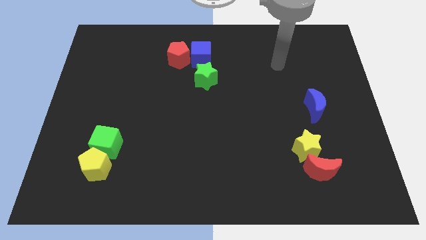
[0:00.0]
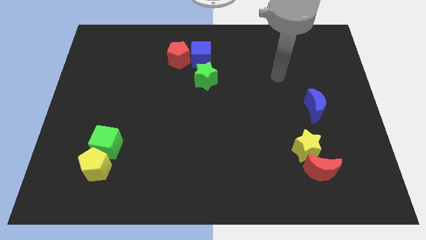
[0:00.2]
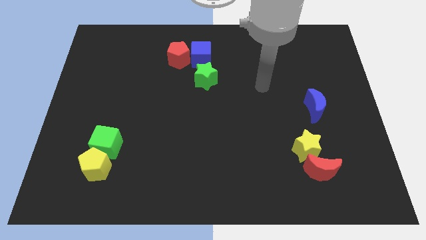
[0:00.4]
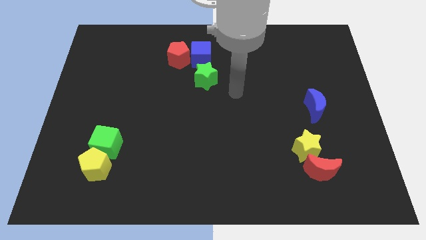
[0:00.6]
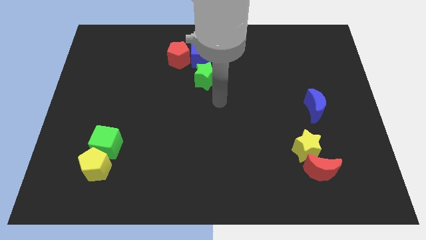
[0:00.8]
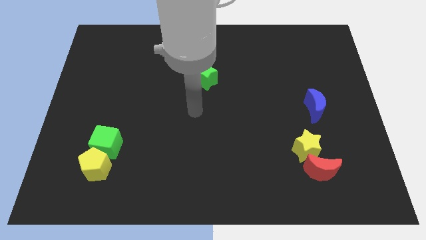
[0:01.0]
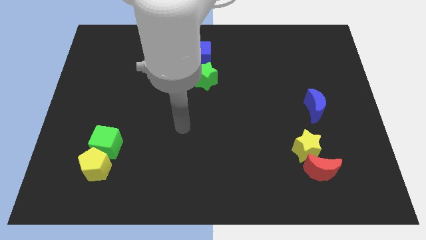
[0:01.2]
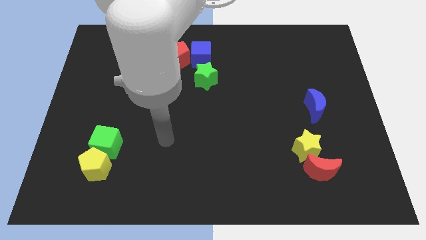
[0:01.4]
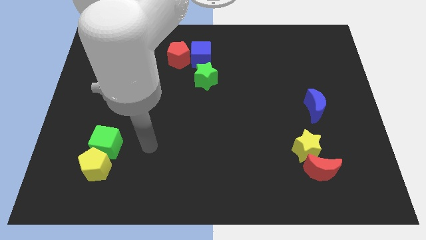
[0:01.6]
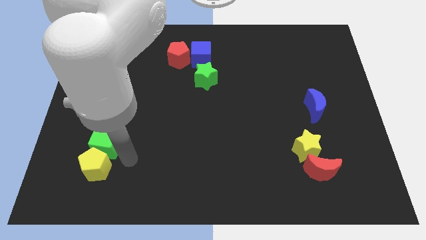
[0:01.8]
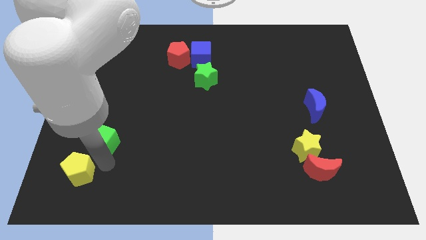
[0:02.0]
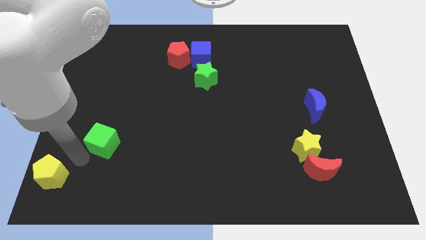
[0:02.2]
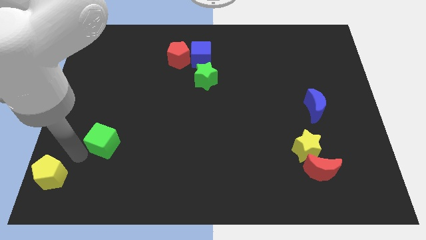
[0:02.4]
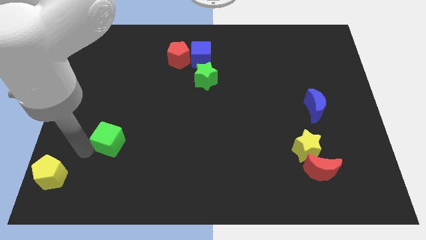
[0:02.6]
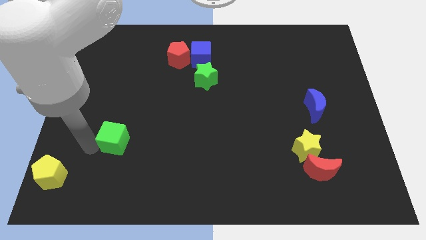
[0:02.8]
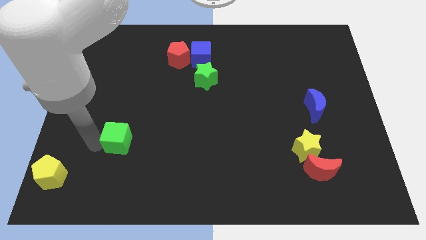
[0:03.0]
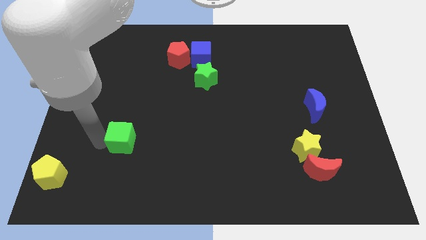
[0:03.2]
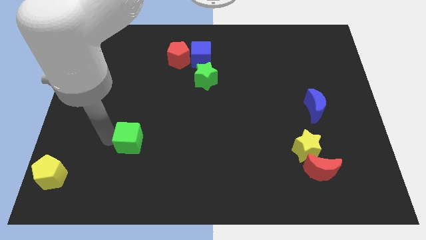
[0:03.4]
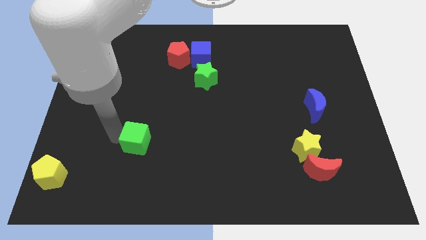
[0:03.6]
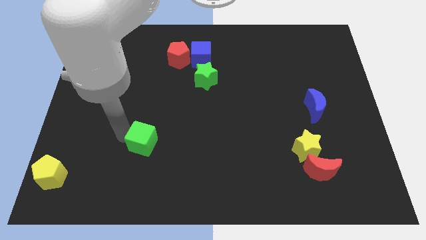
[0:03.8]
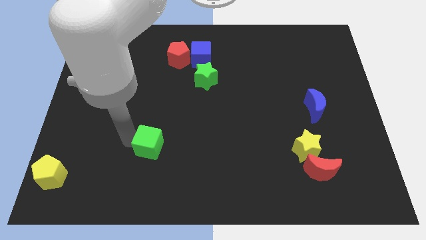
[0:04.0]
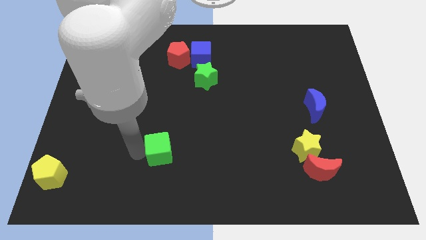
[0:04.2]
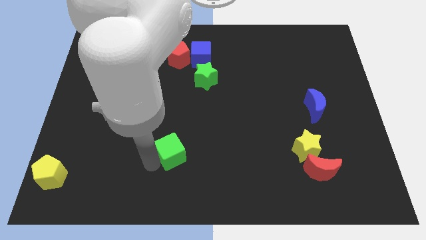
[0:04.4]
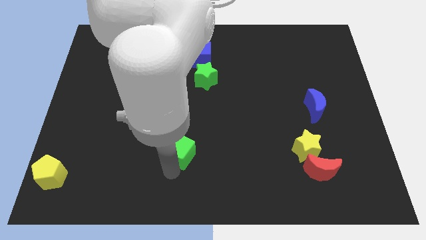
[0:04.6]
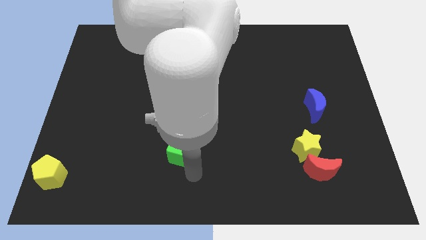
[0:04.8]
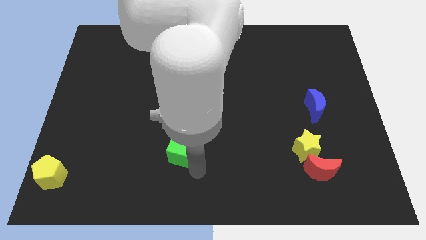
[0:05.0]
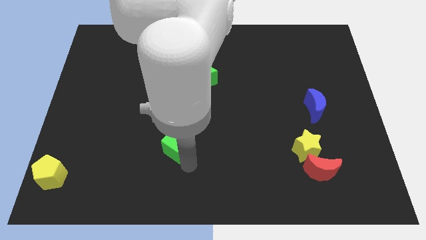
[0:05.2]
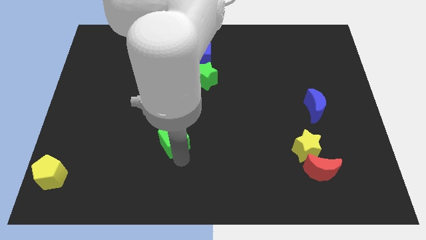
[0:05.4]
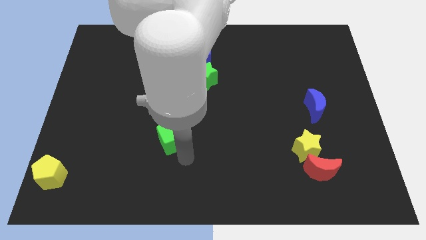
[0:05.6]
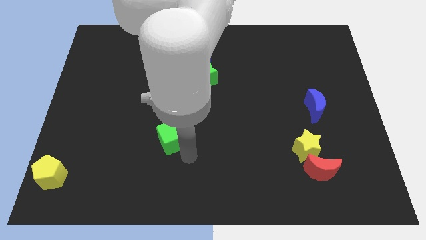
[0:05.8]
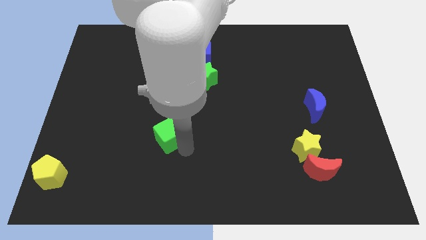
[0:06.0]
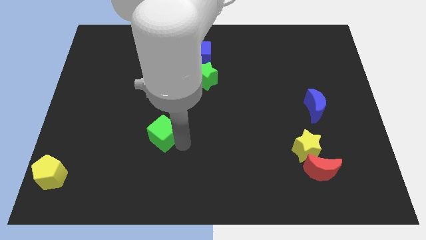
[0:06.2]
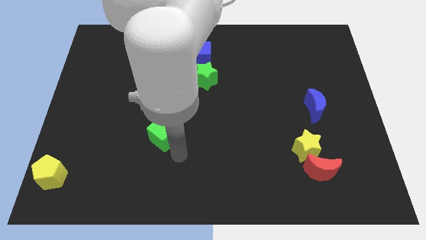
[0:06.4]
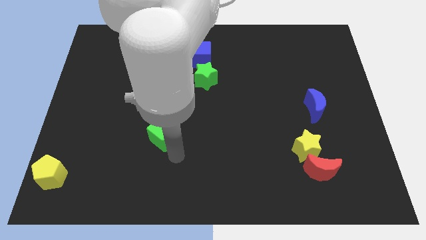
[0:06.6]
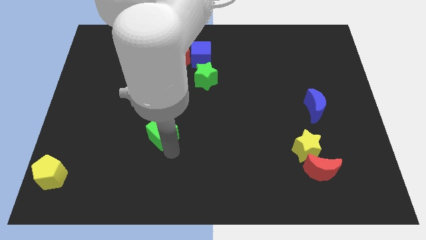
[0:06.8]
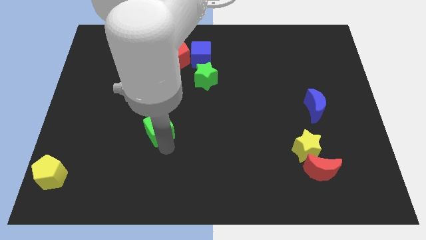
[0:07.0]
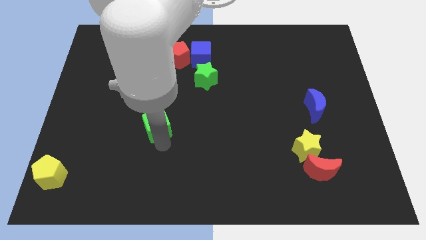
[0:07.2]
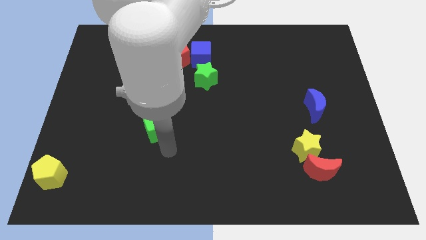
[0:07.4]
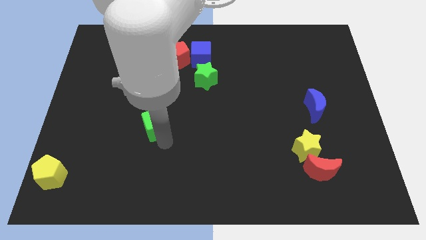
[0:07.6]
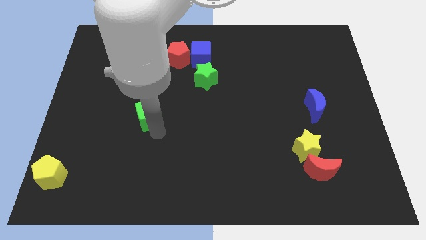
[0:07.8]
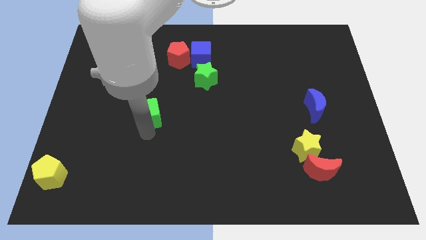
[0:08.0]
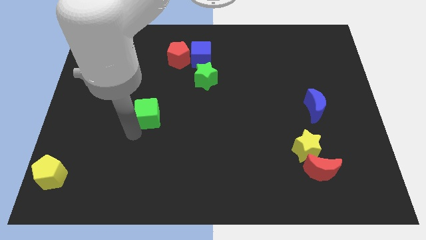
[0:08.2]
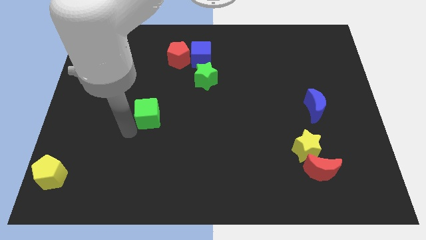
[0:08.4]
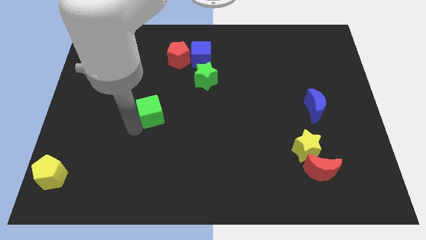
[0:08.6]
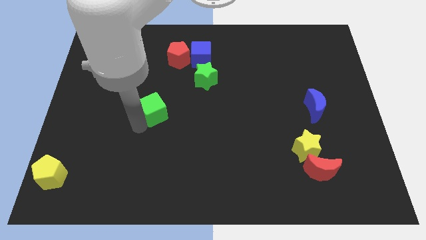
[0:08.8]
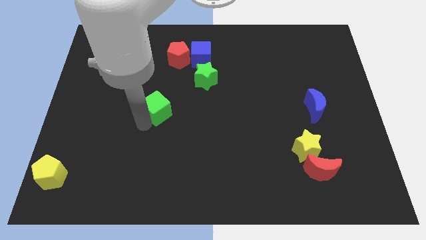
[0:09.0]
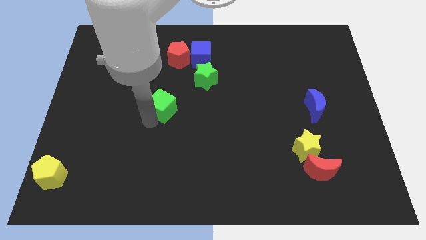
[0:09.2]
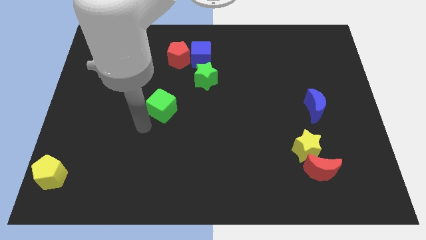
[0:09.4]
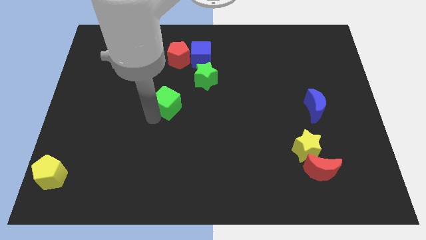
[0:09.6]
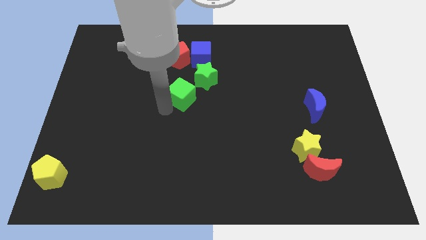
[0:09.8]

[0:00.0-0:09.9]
push the green cube up and right diagonally

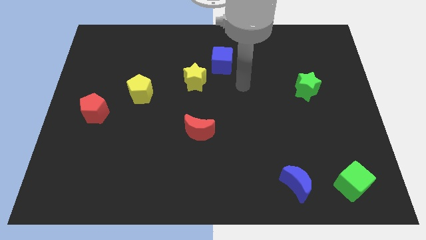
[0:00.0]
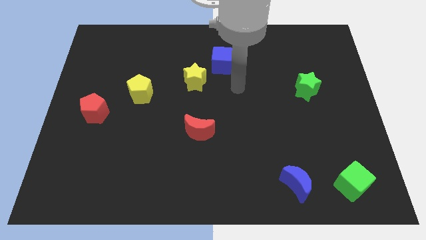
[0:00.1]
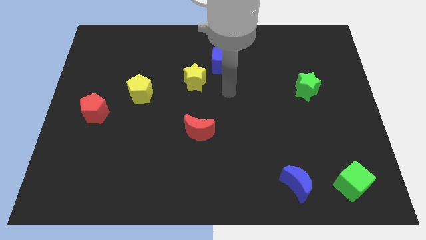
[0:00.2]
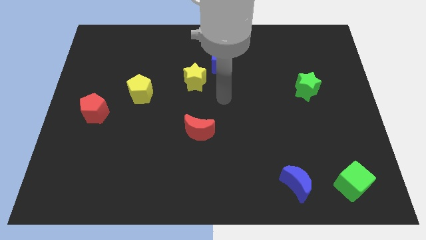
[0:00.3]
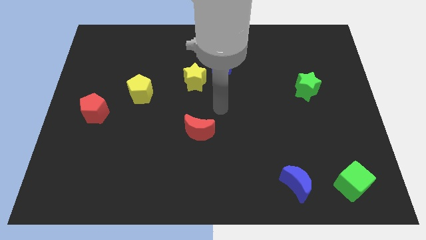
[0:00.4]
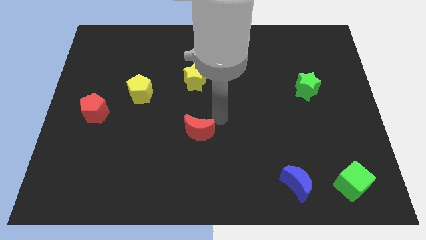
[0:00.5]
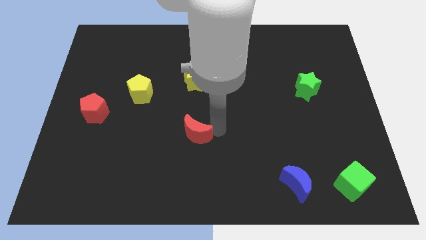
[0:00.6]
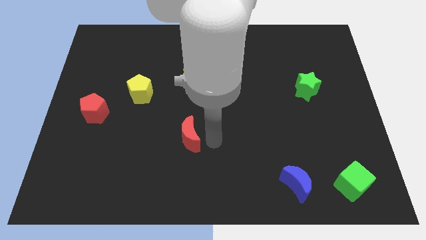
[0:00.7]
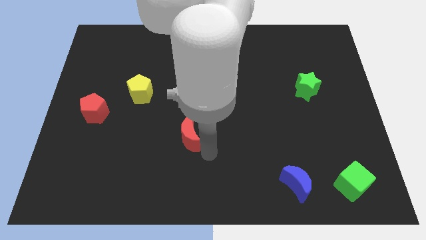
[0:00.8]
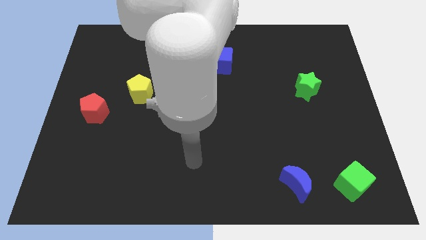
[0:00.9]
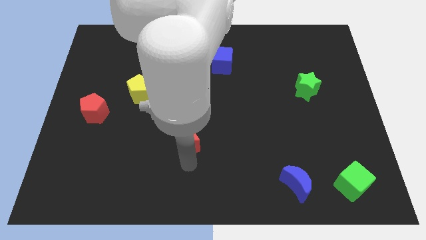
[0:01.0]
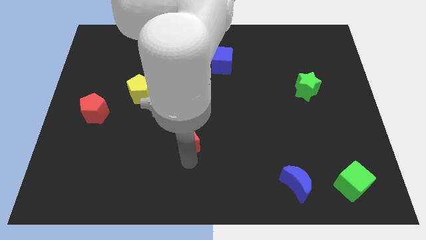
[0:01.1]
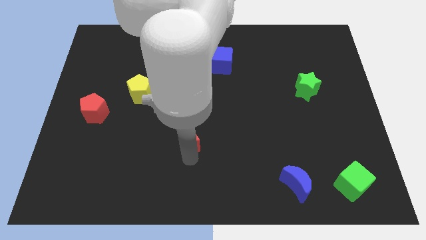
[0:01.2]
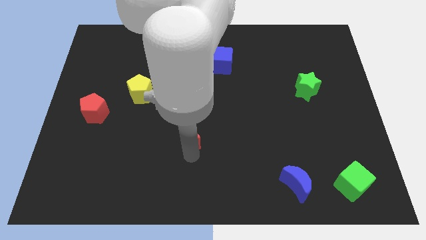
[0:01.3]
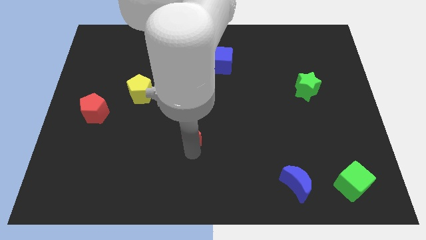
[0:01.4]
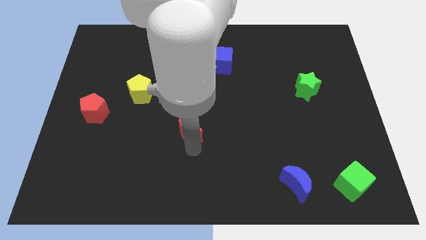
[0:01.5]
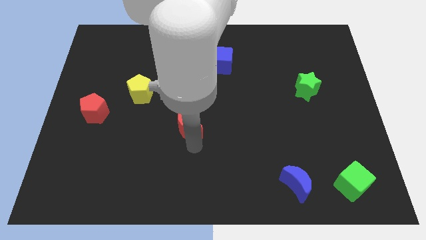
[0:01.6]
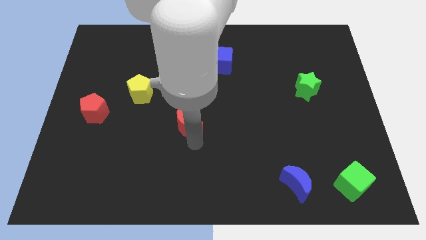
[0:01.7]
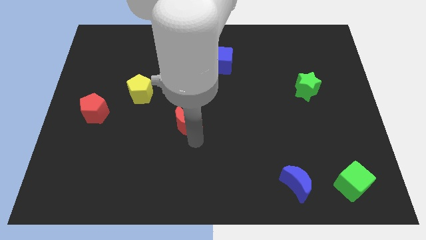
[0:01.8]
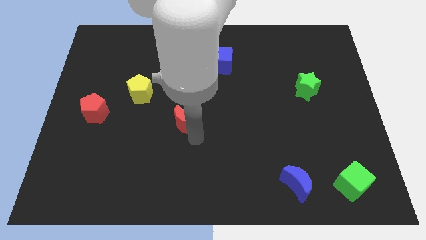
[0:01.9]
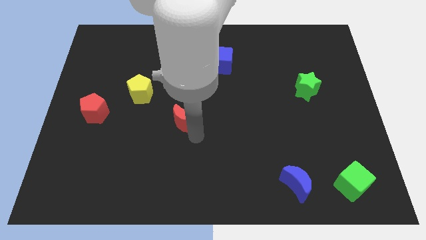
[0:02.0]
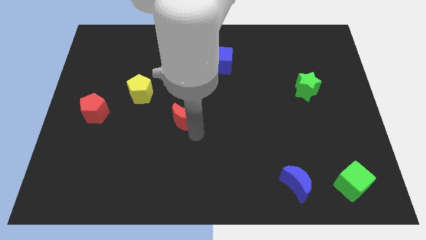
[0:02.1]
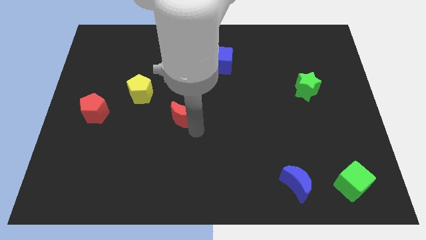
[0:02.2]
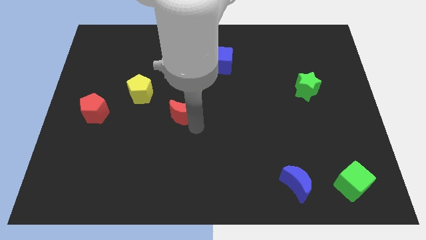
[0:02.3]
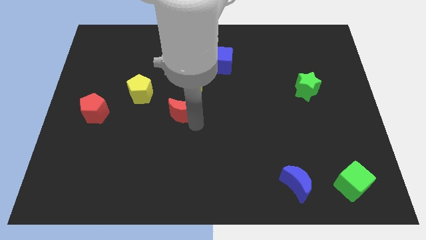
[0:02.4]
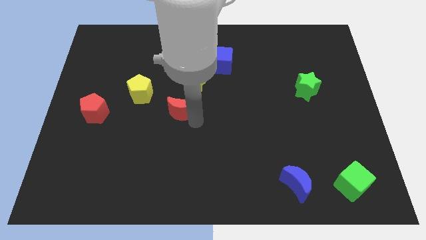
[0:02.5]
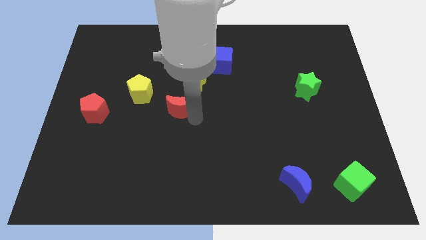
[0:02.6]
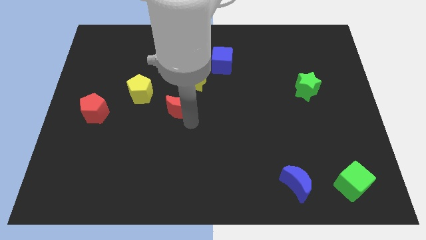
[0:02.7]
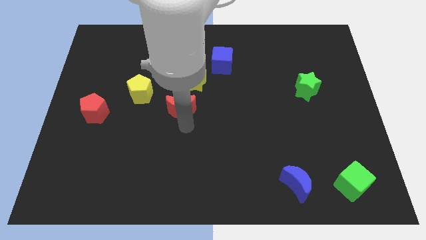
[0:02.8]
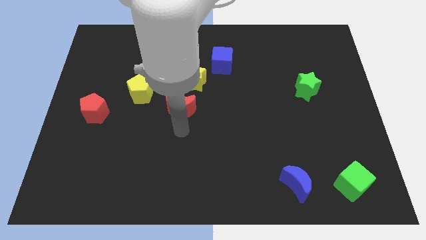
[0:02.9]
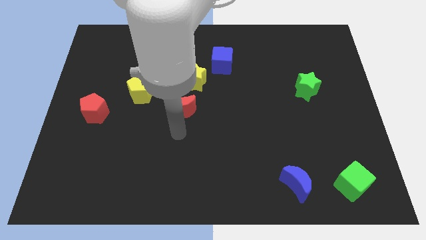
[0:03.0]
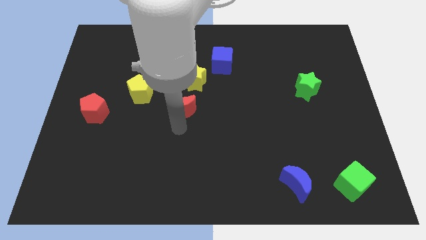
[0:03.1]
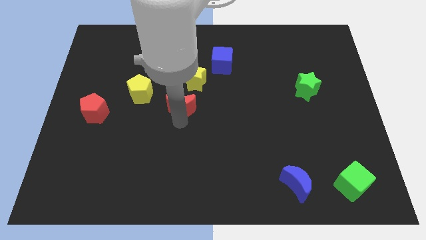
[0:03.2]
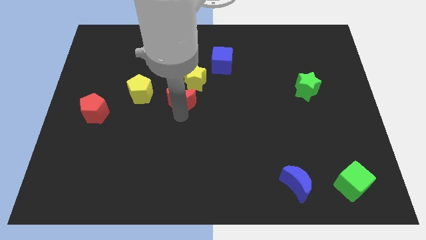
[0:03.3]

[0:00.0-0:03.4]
move the red moon a little upwards

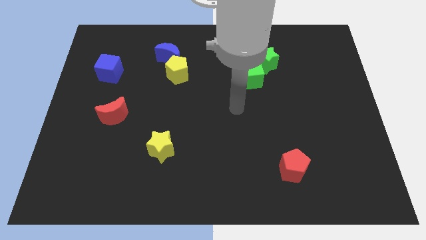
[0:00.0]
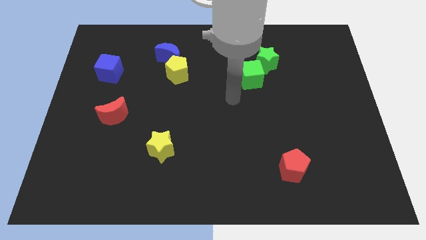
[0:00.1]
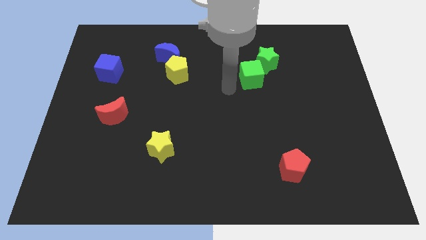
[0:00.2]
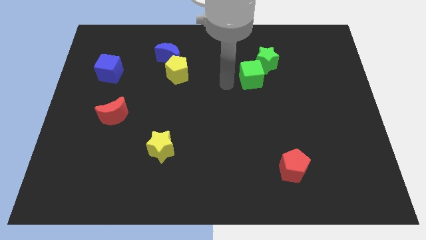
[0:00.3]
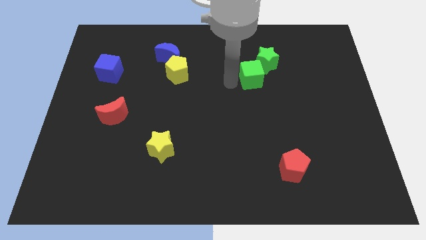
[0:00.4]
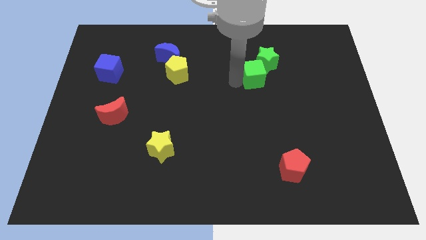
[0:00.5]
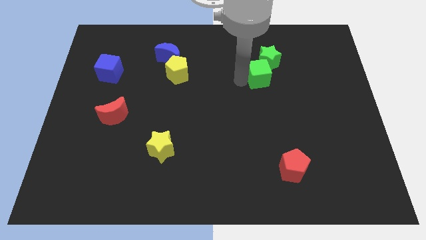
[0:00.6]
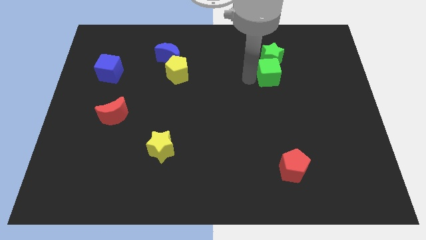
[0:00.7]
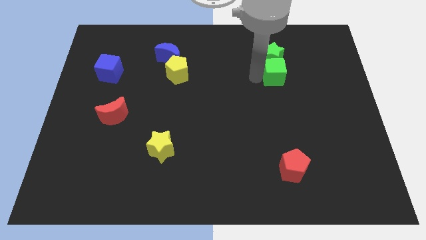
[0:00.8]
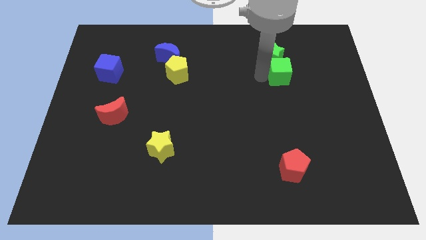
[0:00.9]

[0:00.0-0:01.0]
push the green cube slightly right
